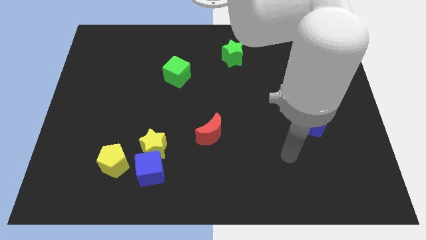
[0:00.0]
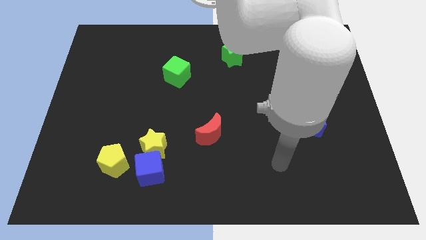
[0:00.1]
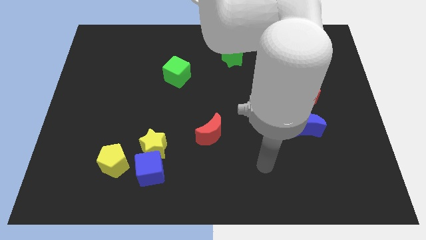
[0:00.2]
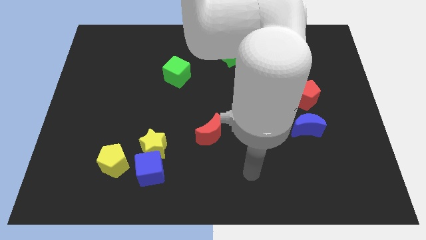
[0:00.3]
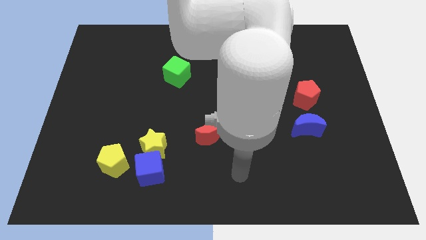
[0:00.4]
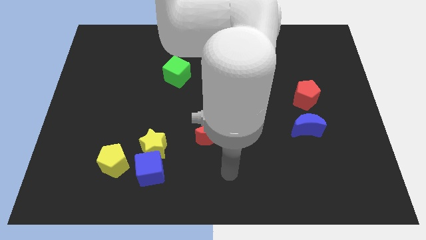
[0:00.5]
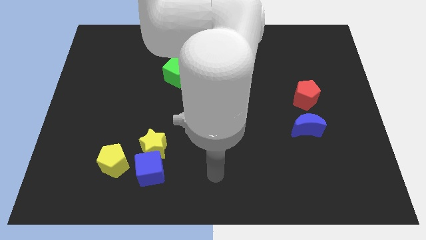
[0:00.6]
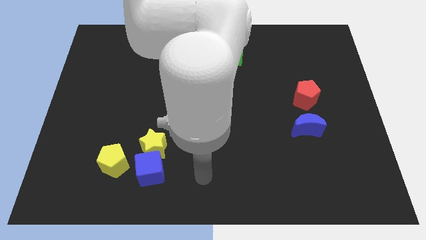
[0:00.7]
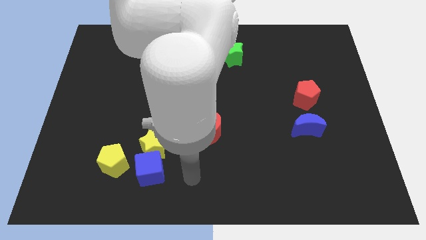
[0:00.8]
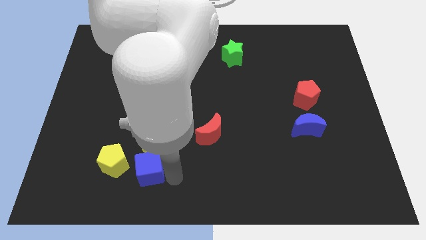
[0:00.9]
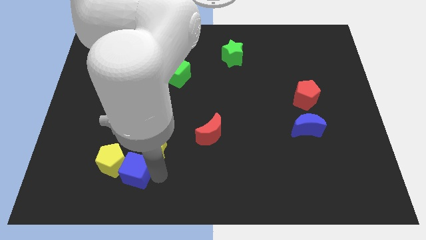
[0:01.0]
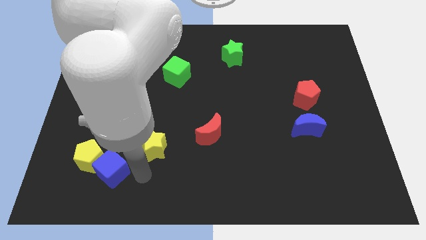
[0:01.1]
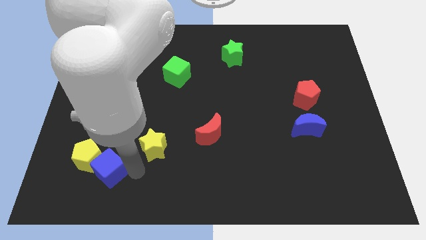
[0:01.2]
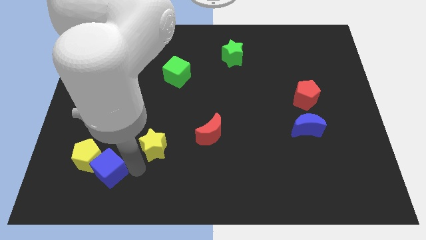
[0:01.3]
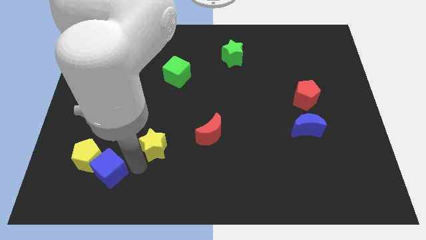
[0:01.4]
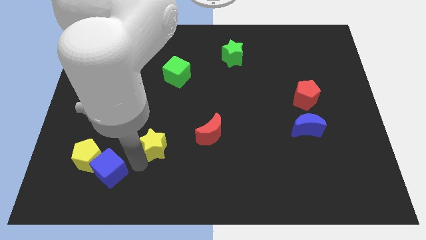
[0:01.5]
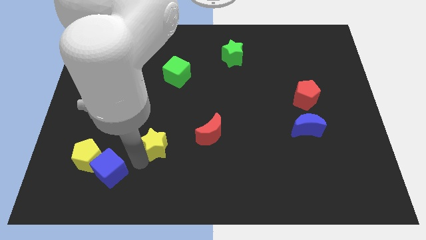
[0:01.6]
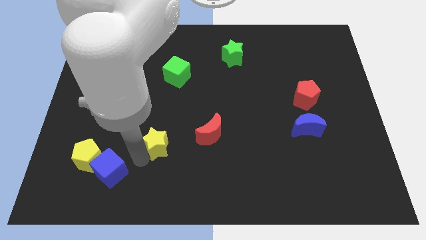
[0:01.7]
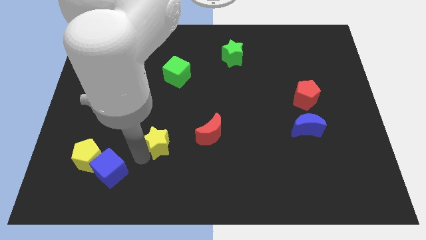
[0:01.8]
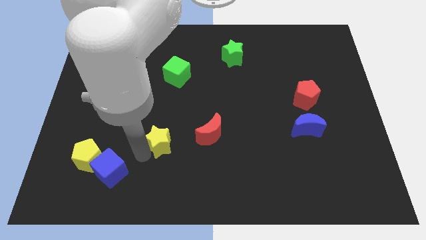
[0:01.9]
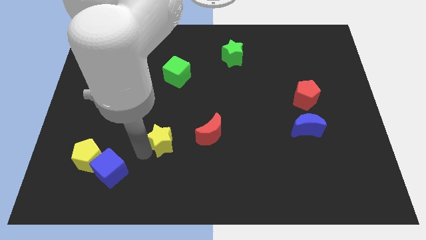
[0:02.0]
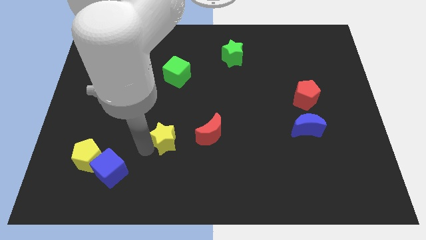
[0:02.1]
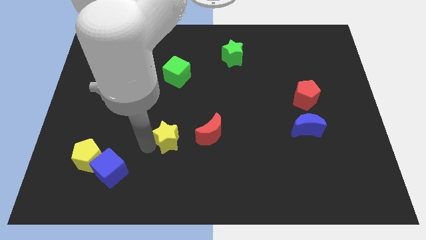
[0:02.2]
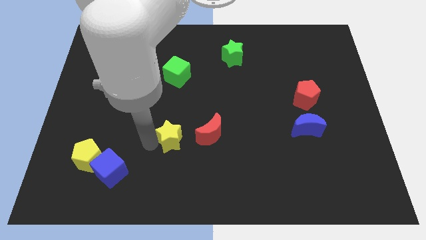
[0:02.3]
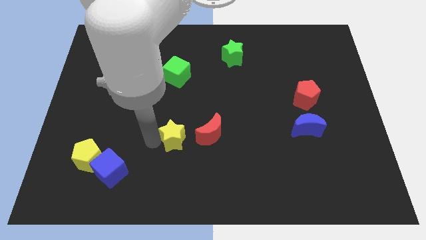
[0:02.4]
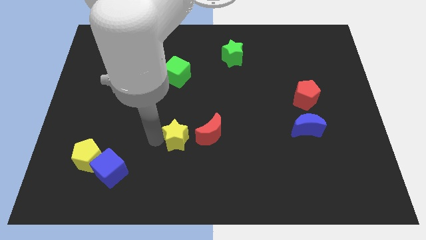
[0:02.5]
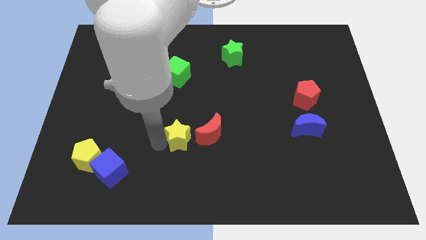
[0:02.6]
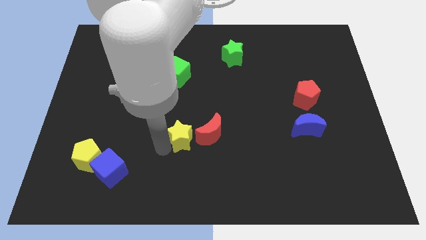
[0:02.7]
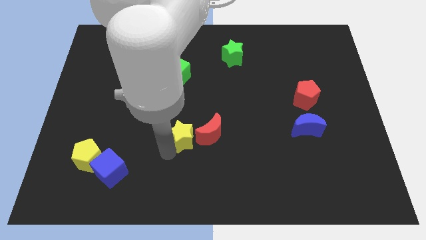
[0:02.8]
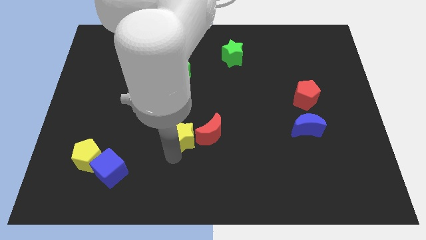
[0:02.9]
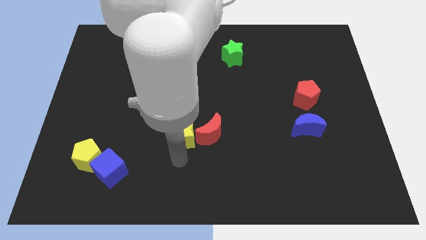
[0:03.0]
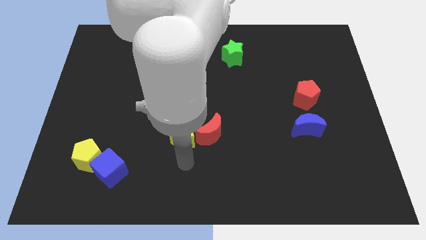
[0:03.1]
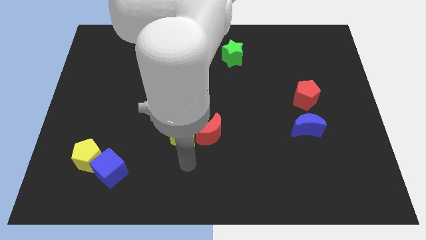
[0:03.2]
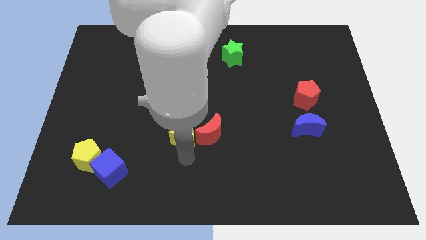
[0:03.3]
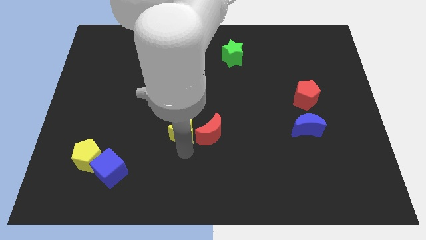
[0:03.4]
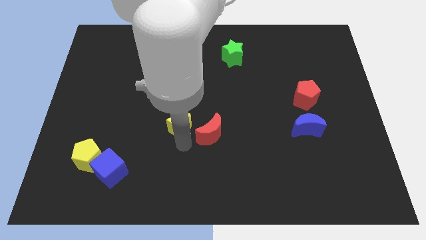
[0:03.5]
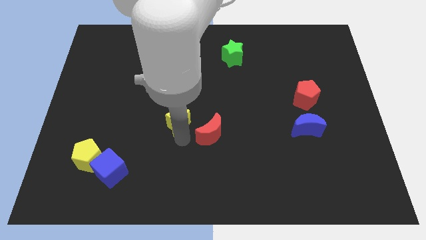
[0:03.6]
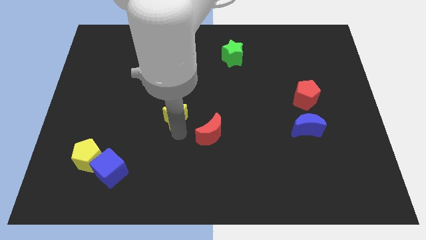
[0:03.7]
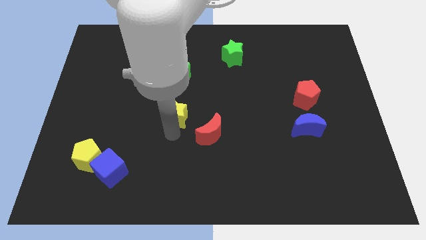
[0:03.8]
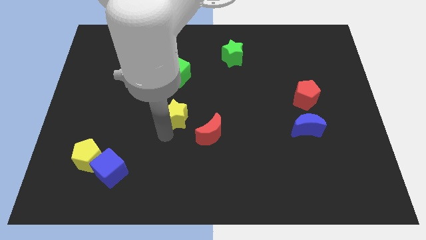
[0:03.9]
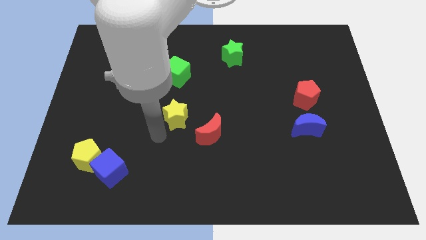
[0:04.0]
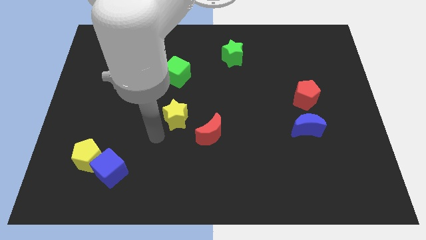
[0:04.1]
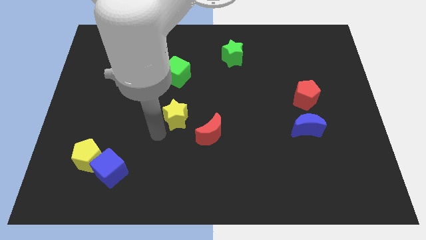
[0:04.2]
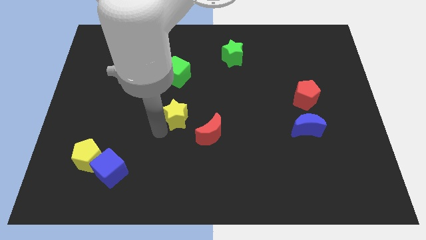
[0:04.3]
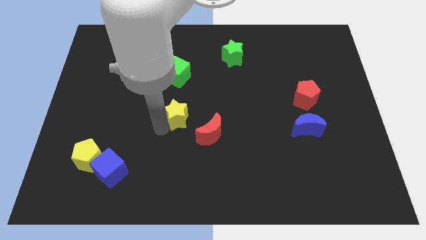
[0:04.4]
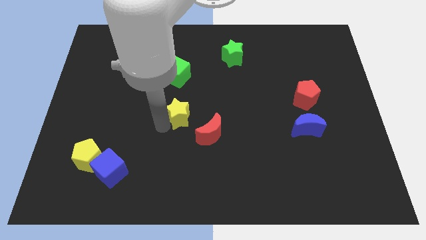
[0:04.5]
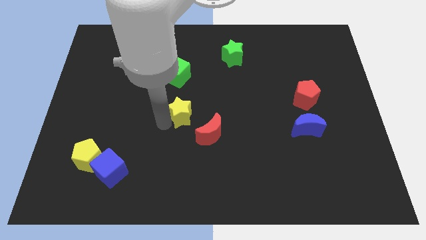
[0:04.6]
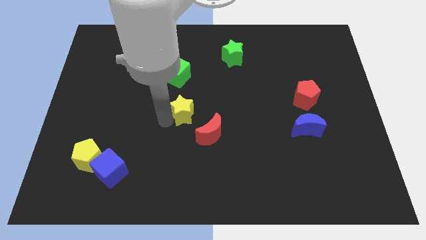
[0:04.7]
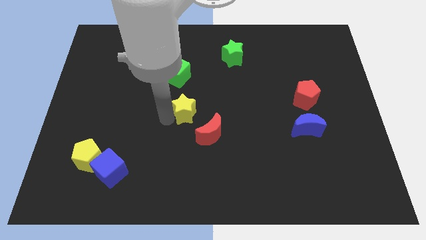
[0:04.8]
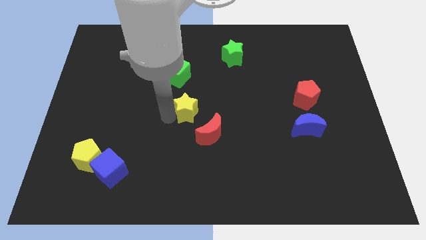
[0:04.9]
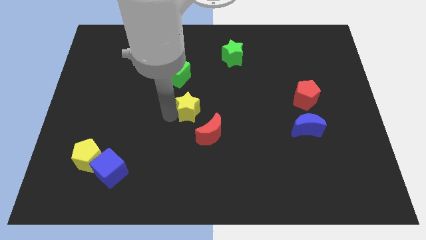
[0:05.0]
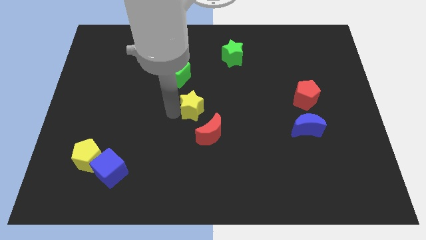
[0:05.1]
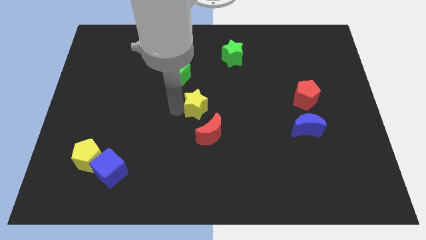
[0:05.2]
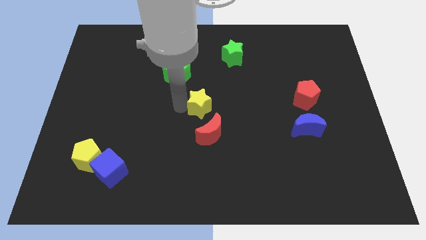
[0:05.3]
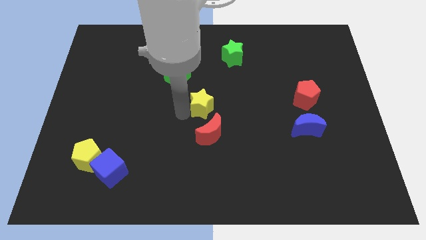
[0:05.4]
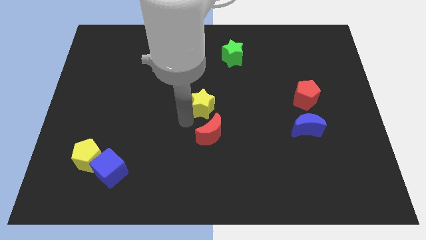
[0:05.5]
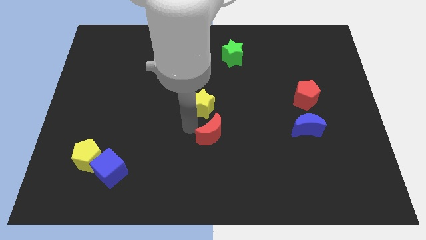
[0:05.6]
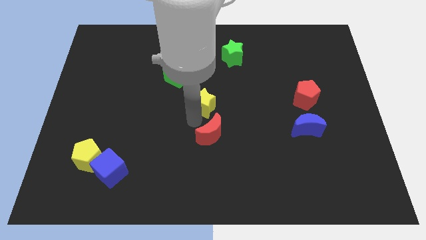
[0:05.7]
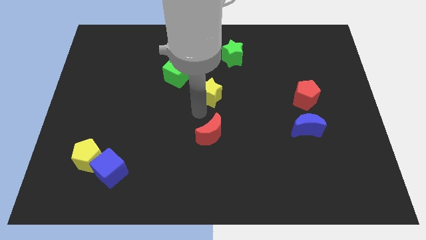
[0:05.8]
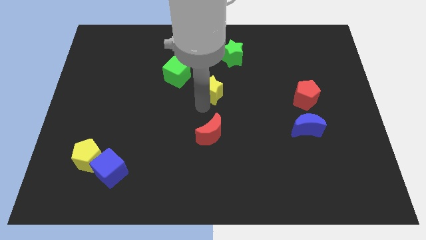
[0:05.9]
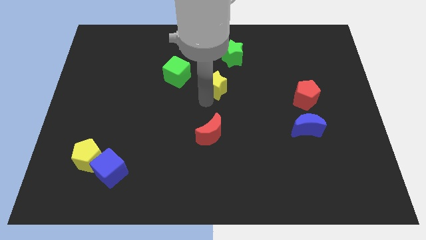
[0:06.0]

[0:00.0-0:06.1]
put the yellow star to the right side of the green cube

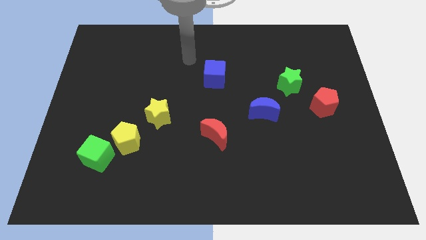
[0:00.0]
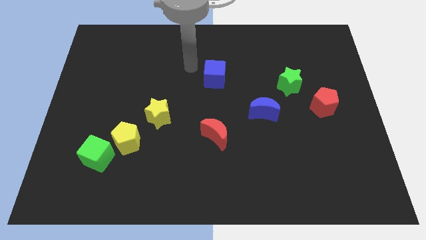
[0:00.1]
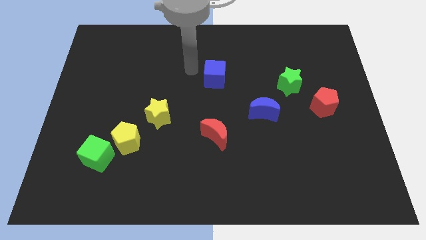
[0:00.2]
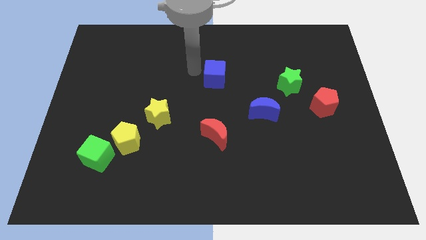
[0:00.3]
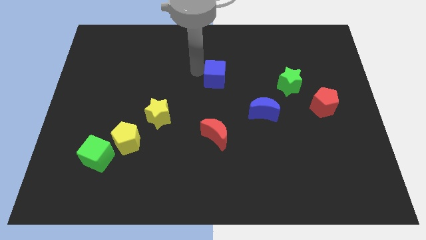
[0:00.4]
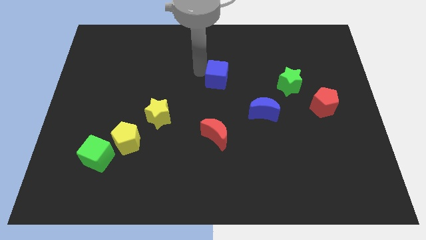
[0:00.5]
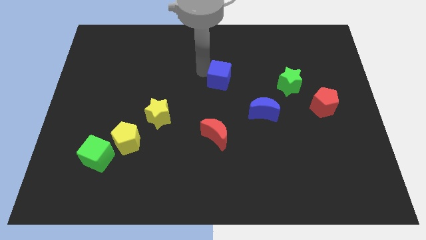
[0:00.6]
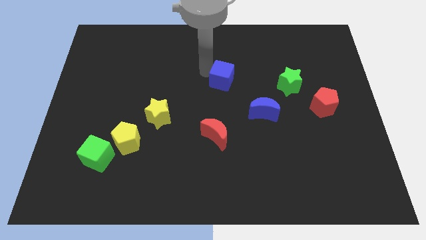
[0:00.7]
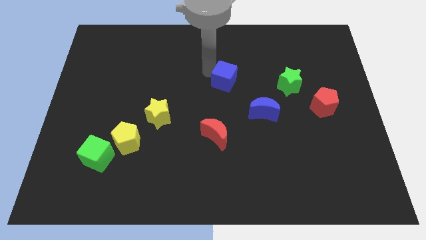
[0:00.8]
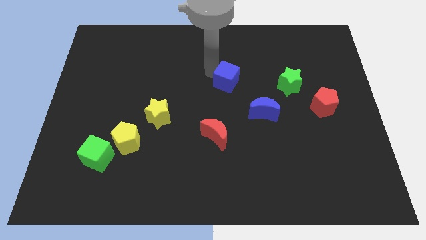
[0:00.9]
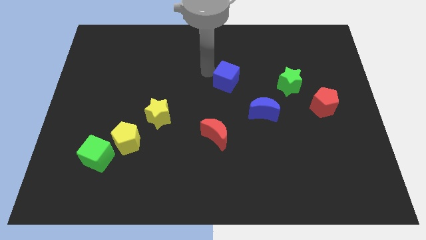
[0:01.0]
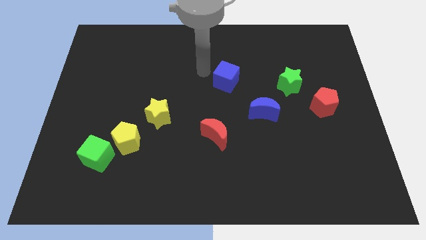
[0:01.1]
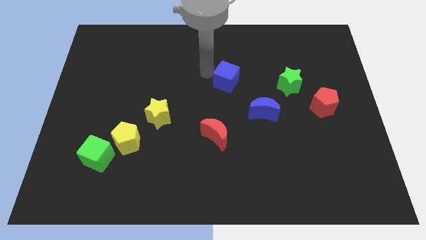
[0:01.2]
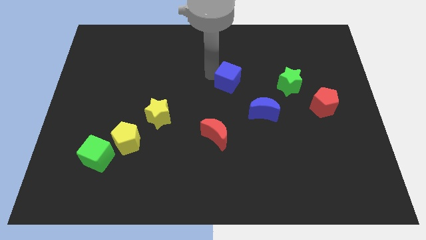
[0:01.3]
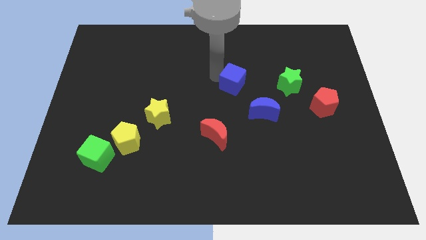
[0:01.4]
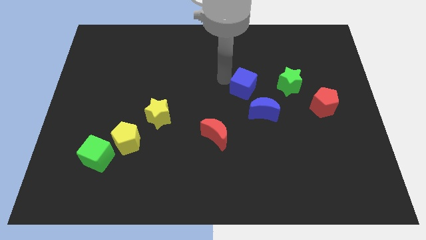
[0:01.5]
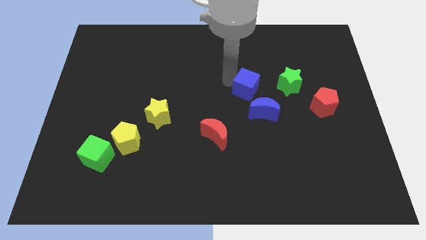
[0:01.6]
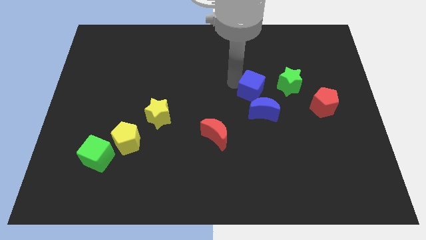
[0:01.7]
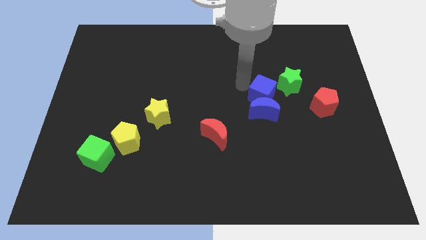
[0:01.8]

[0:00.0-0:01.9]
move the blue cube just left of the red pentagon
